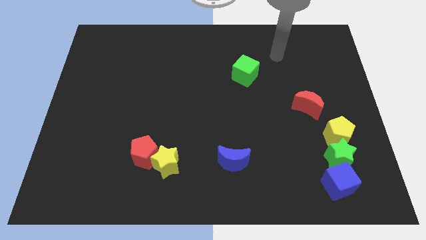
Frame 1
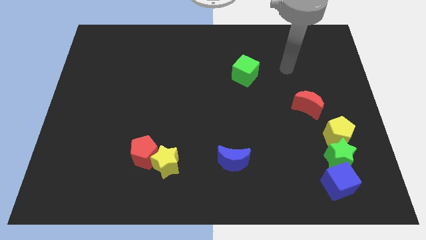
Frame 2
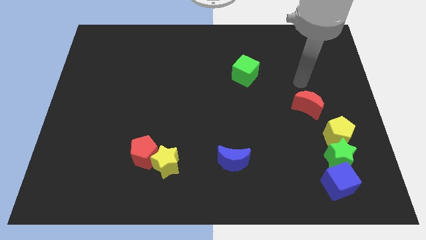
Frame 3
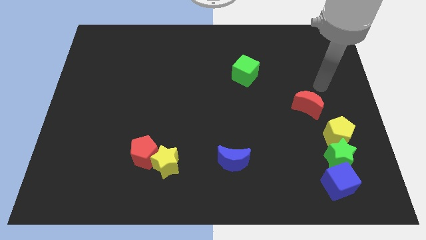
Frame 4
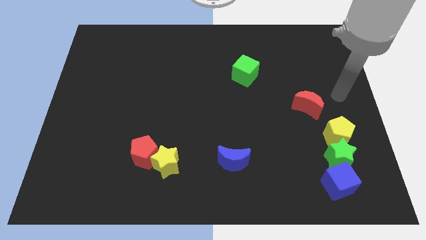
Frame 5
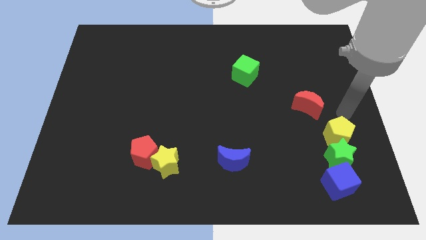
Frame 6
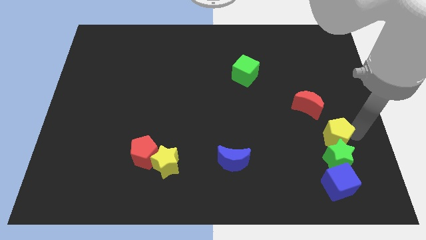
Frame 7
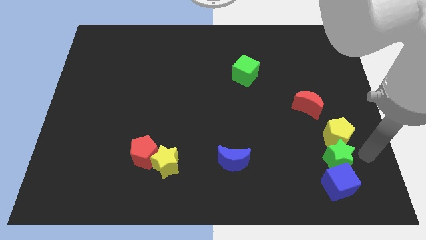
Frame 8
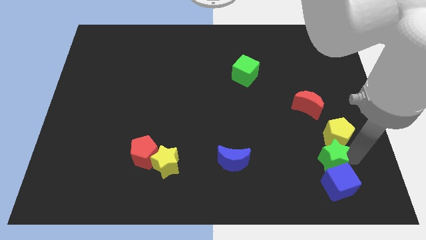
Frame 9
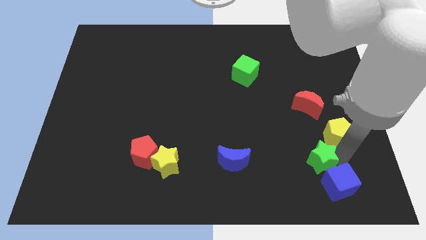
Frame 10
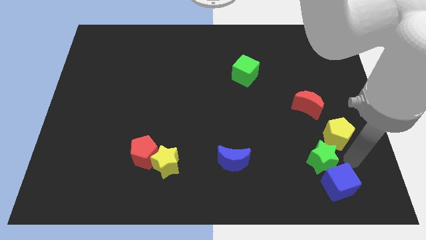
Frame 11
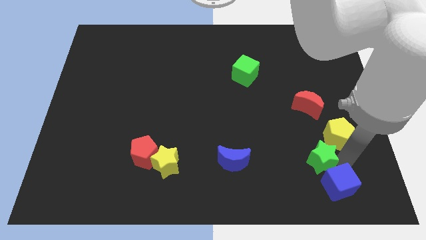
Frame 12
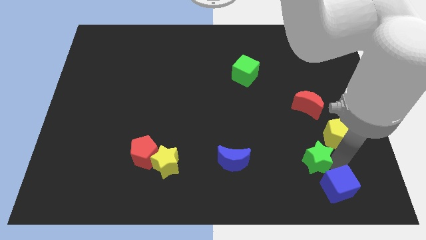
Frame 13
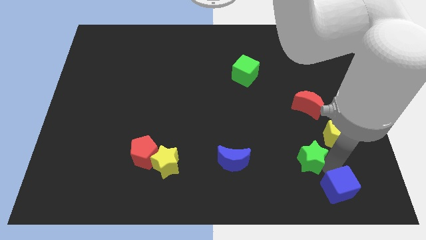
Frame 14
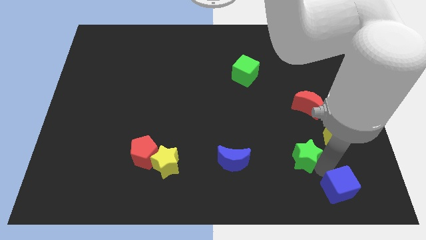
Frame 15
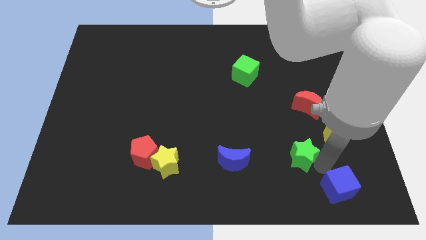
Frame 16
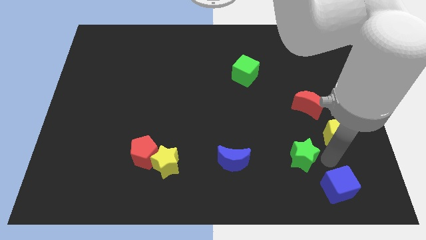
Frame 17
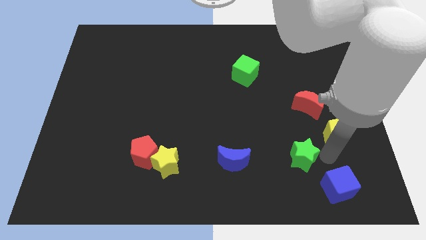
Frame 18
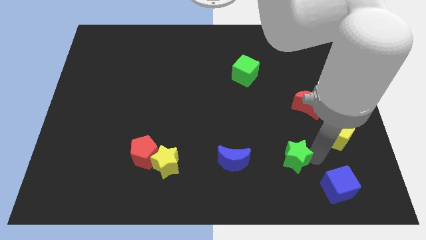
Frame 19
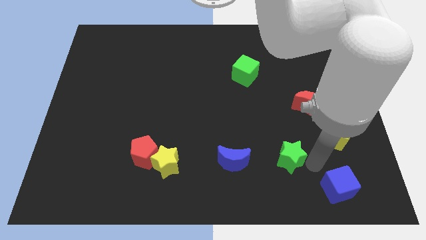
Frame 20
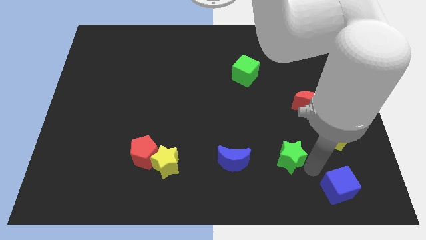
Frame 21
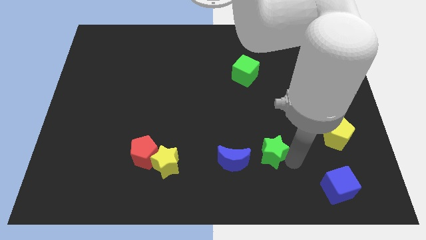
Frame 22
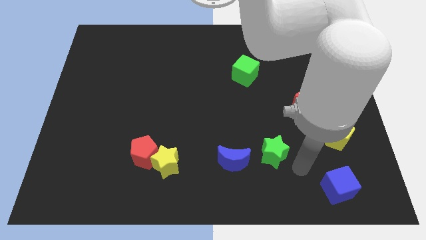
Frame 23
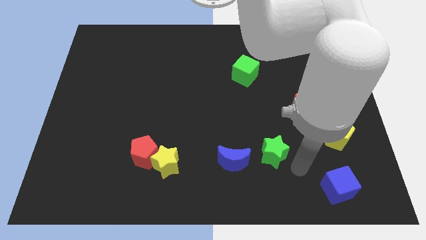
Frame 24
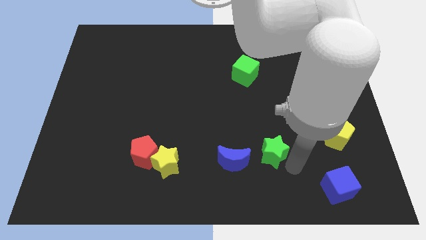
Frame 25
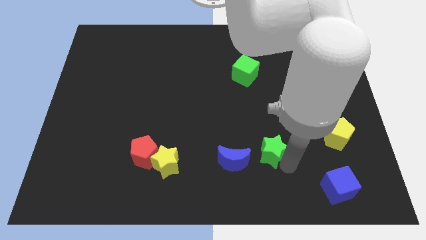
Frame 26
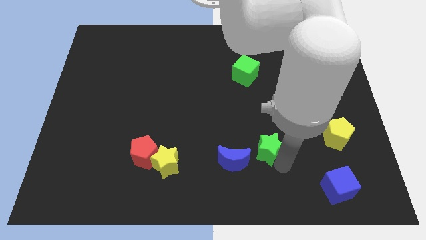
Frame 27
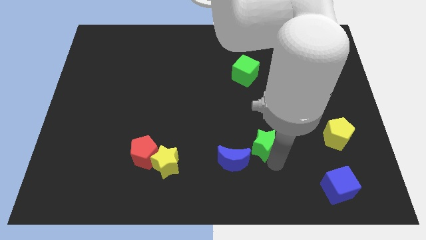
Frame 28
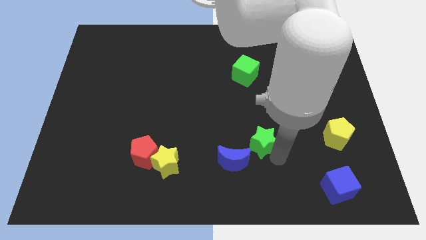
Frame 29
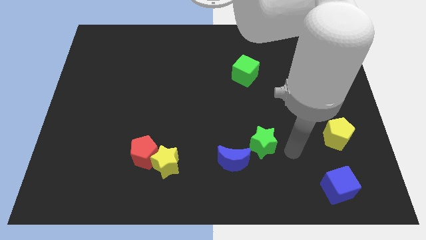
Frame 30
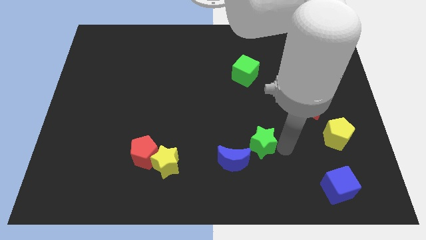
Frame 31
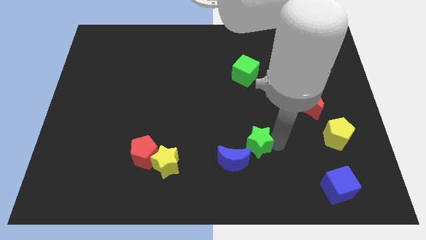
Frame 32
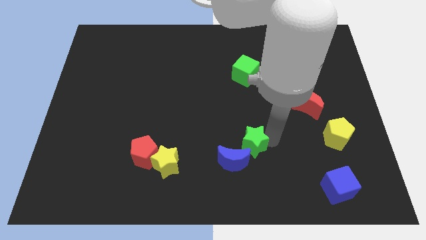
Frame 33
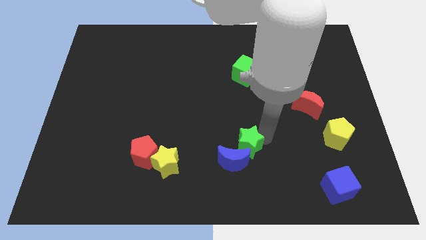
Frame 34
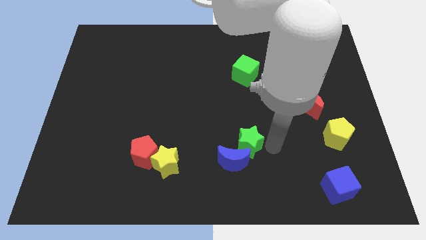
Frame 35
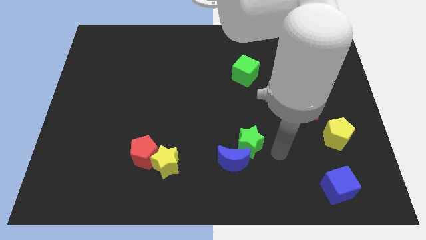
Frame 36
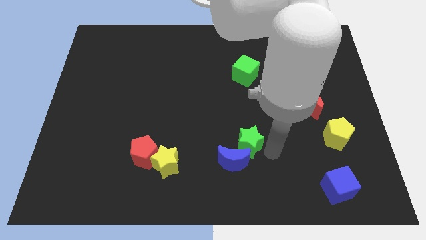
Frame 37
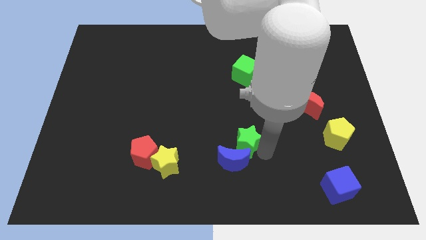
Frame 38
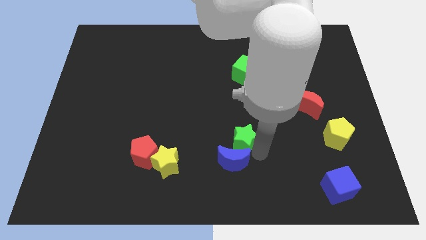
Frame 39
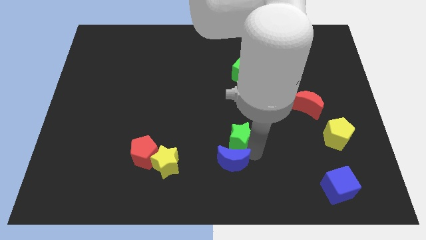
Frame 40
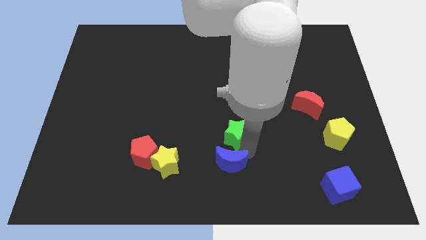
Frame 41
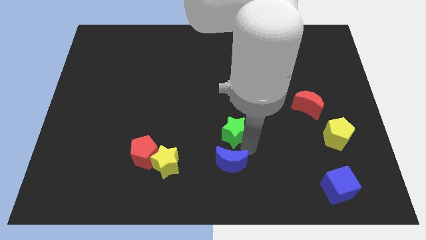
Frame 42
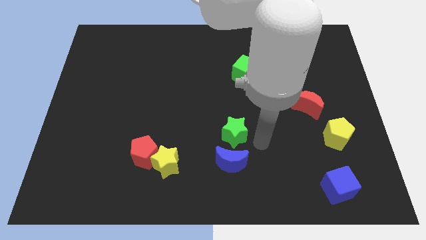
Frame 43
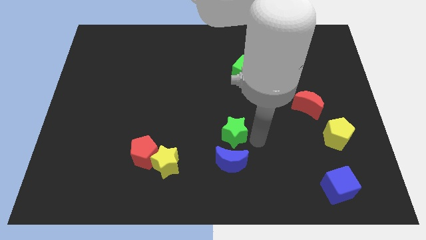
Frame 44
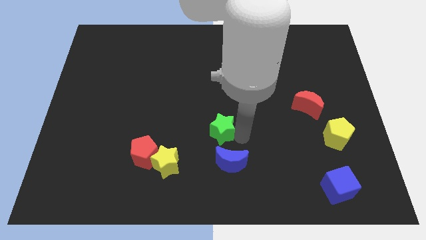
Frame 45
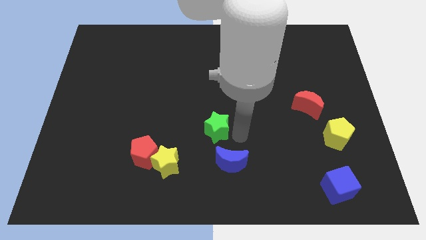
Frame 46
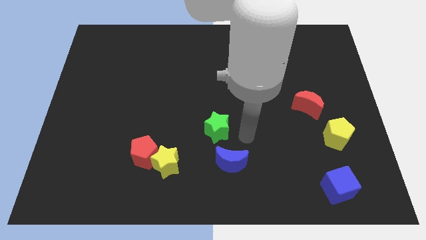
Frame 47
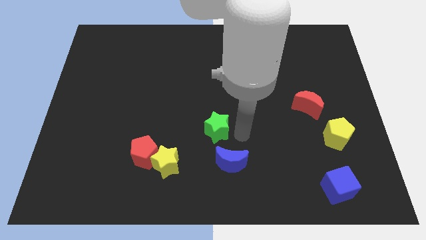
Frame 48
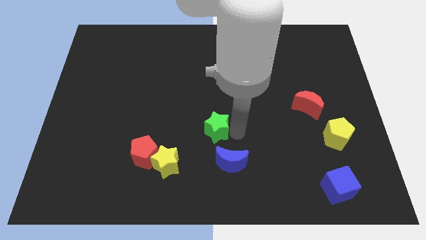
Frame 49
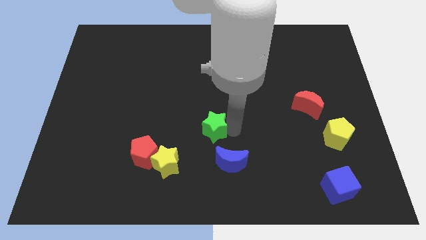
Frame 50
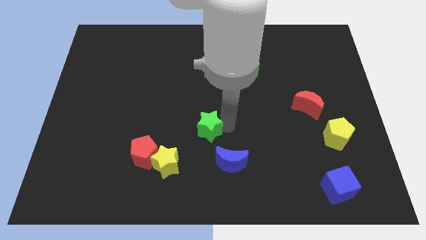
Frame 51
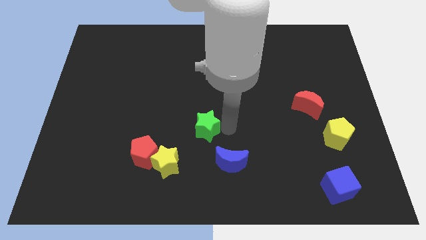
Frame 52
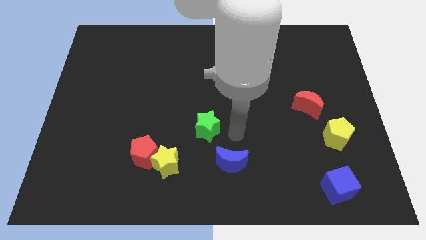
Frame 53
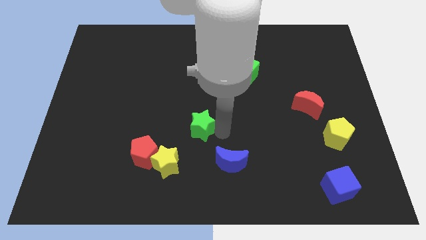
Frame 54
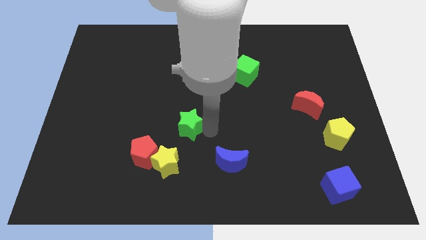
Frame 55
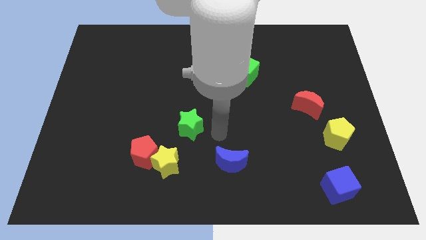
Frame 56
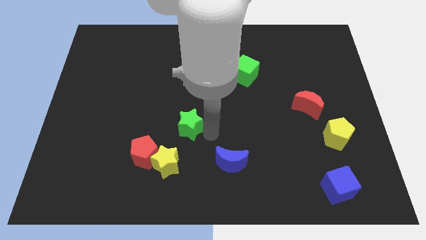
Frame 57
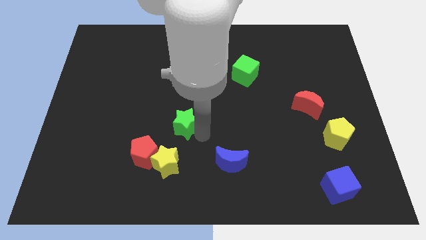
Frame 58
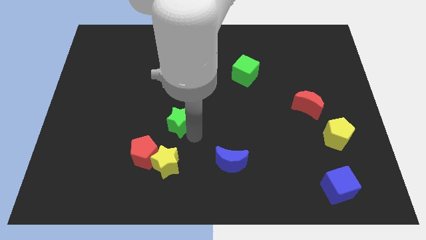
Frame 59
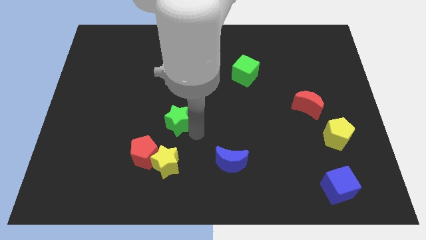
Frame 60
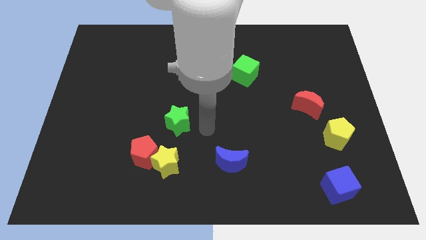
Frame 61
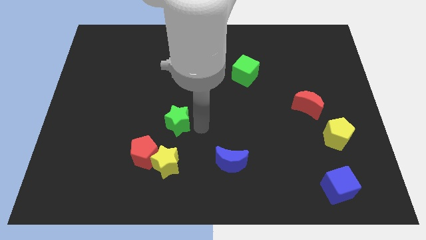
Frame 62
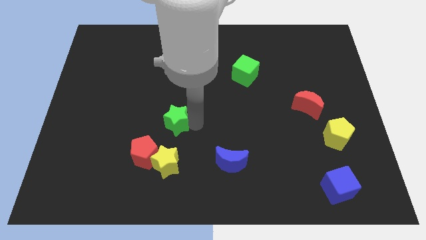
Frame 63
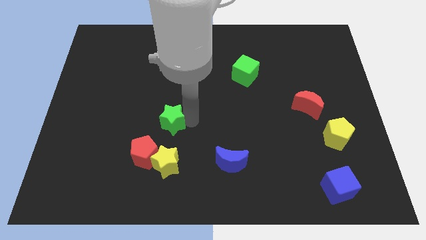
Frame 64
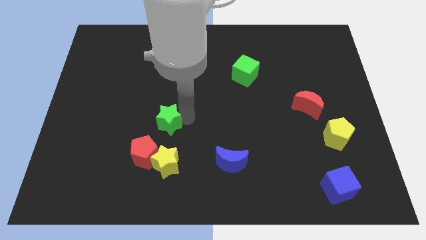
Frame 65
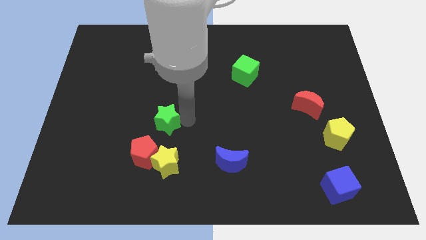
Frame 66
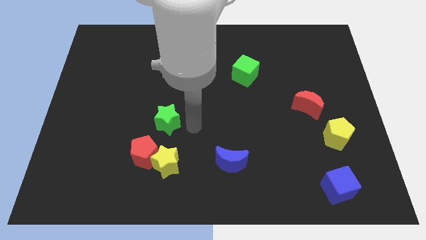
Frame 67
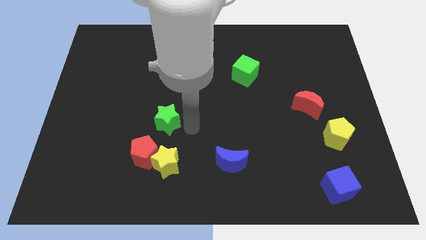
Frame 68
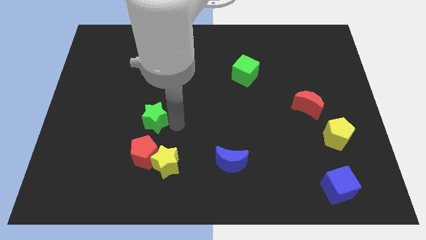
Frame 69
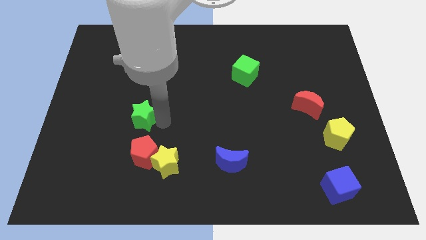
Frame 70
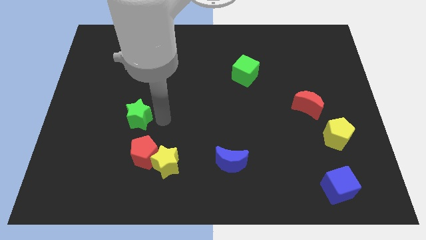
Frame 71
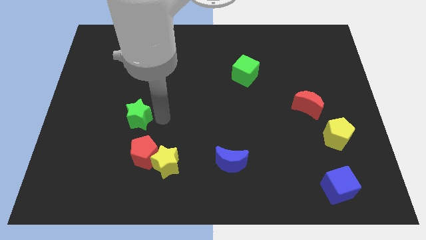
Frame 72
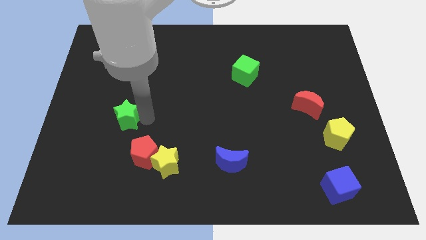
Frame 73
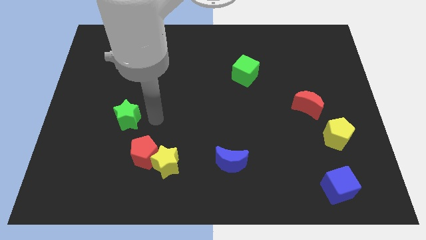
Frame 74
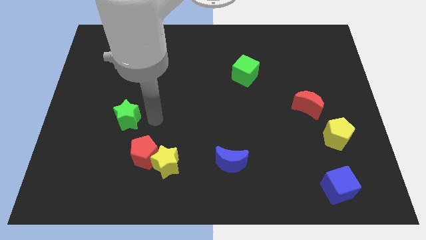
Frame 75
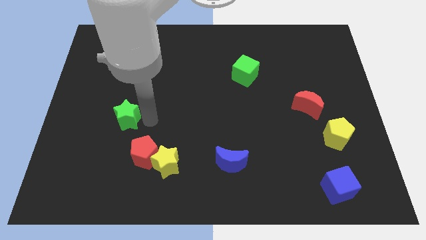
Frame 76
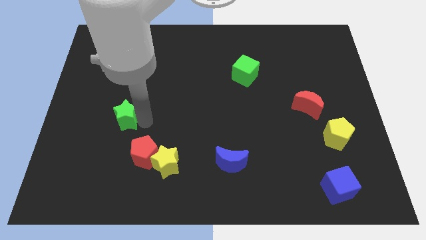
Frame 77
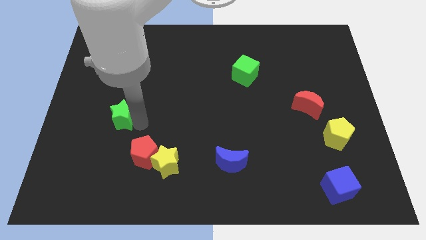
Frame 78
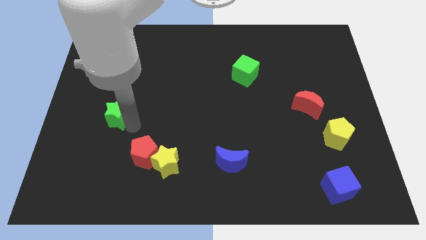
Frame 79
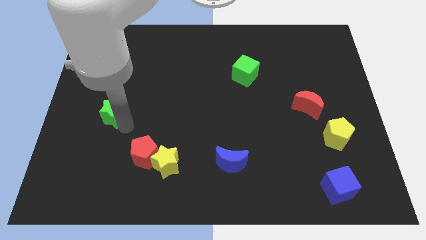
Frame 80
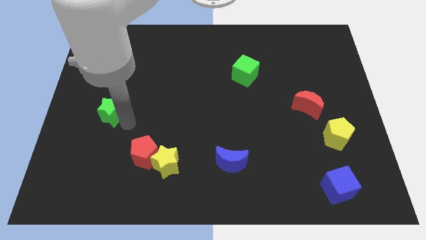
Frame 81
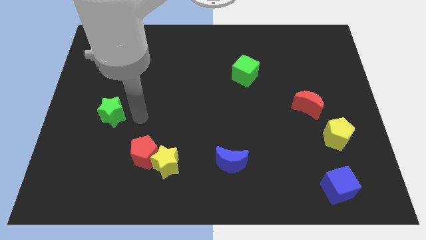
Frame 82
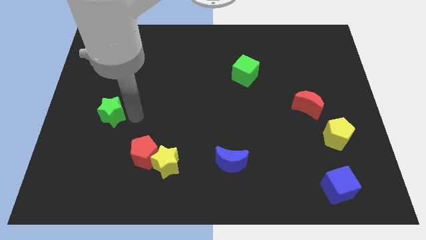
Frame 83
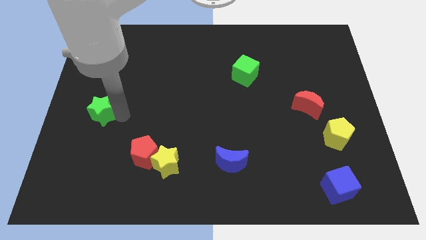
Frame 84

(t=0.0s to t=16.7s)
push the green star to the center left
